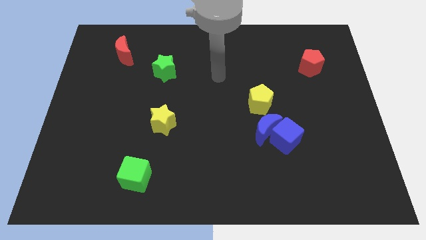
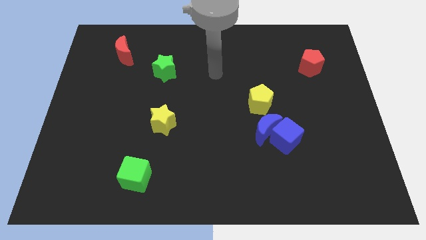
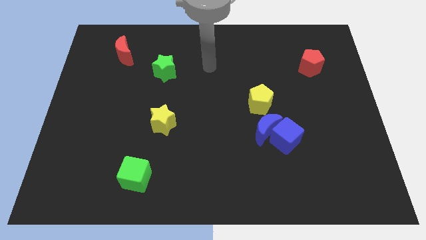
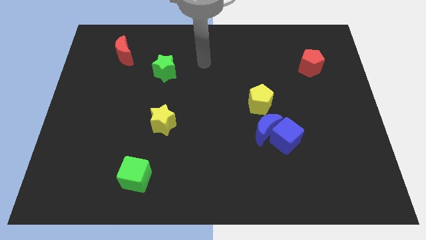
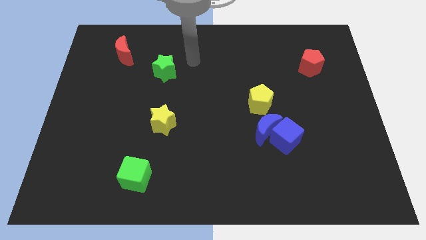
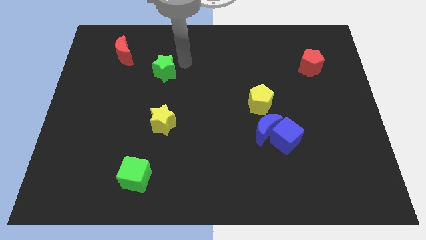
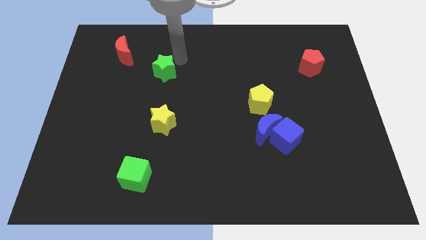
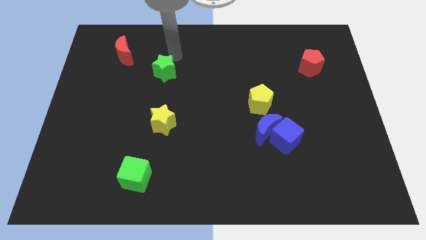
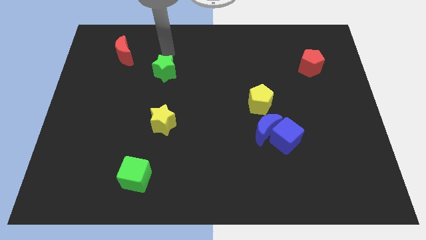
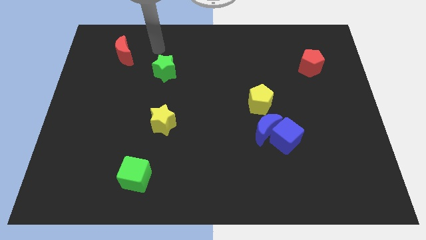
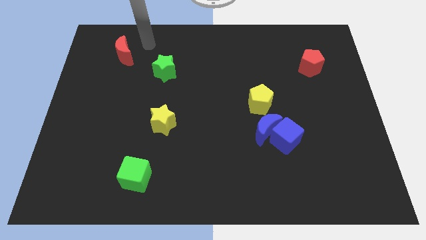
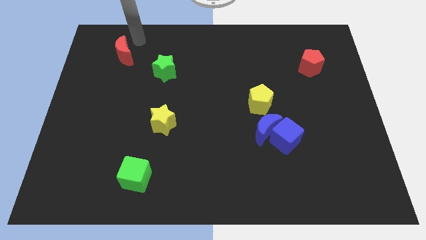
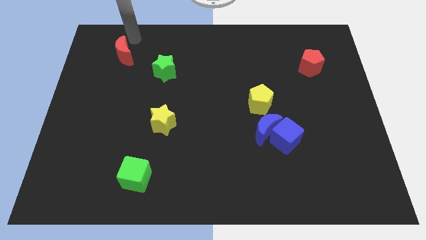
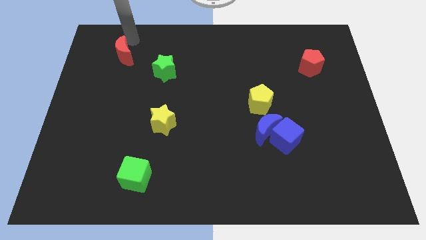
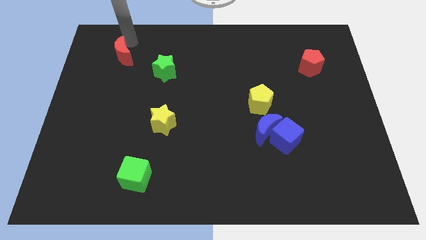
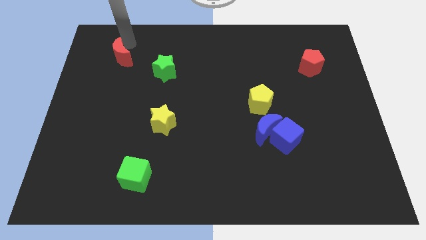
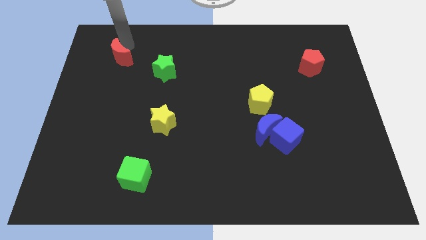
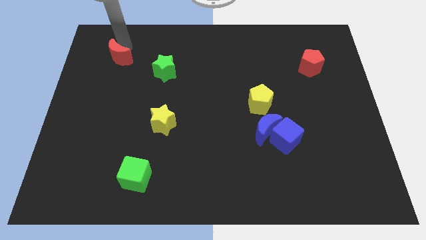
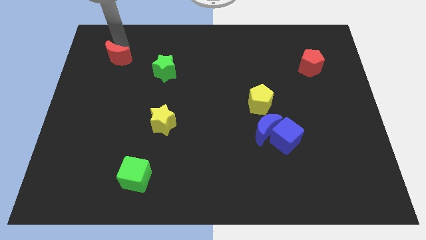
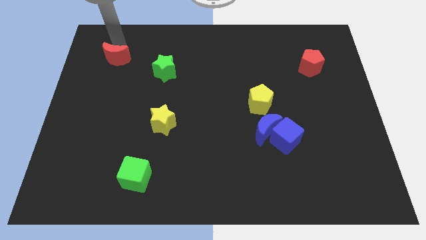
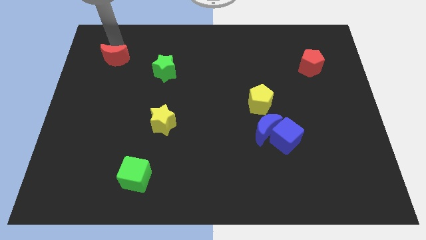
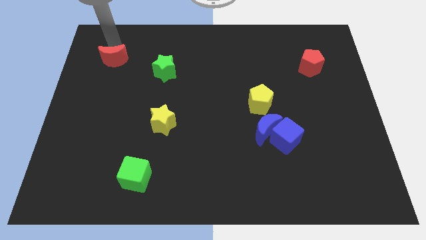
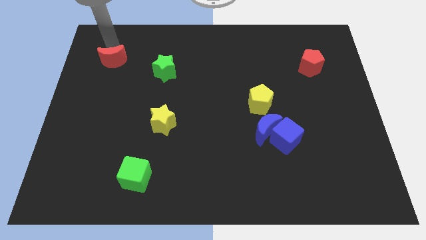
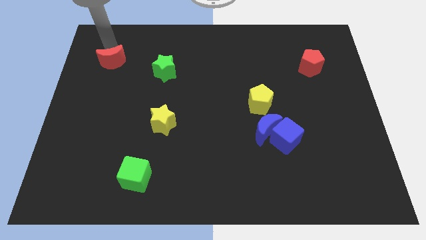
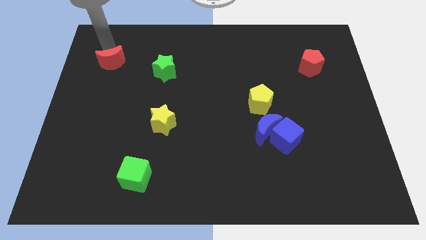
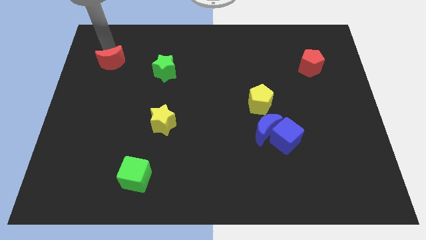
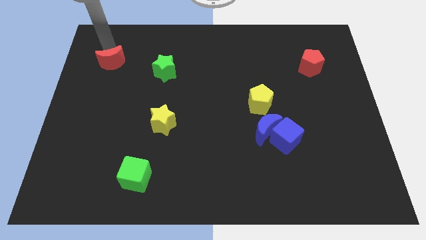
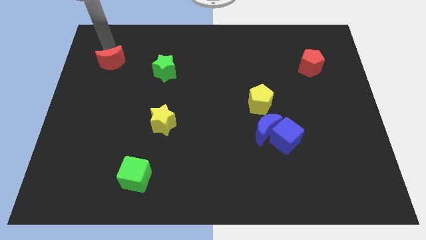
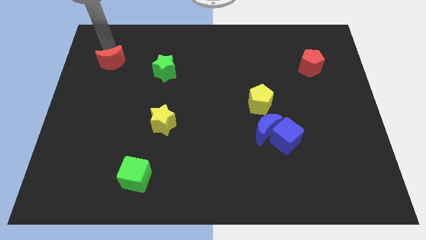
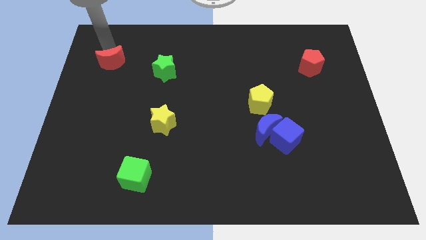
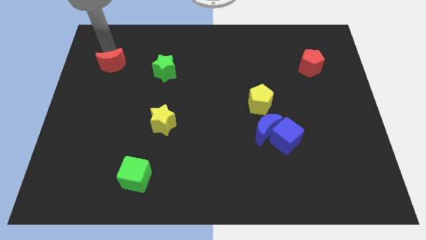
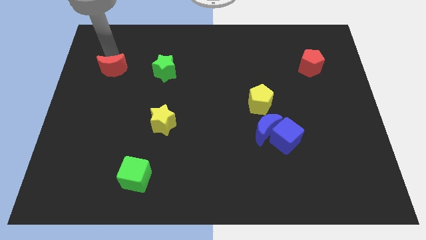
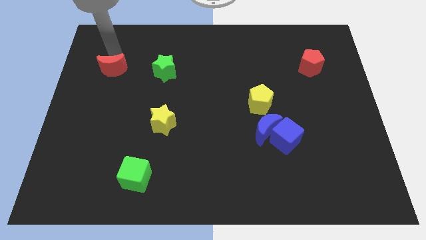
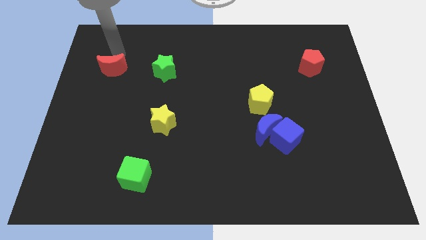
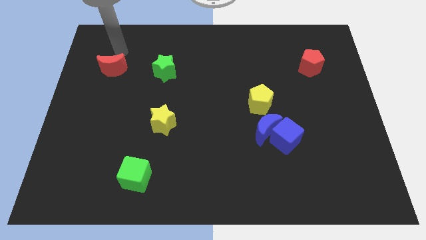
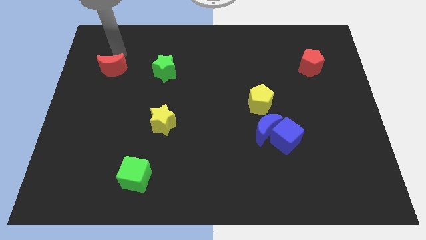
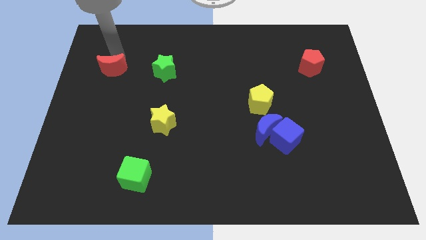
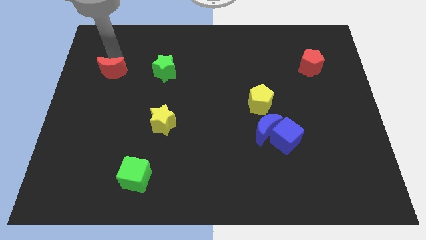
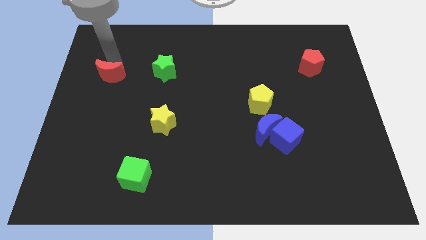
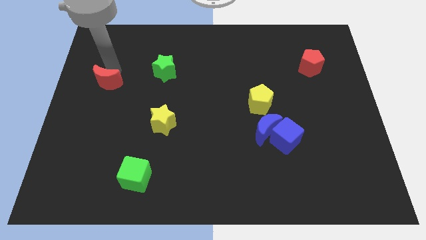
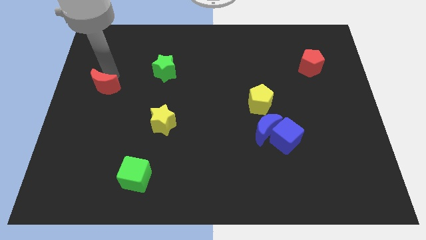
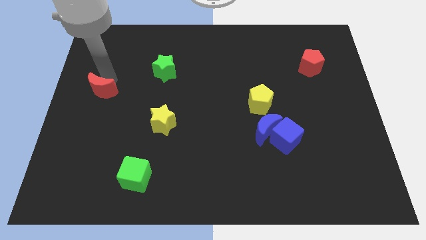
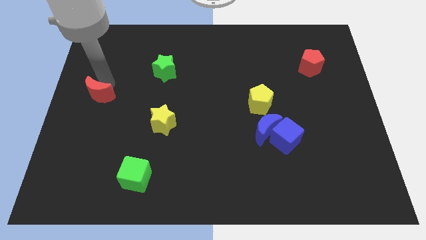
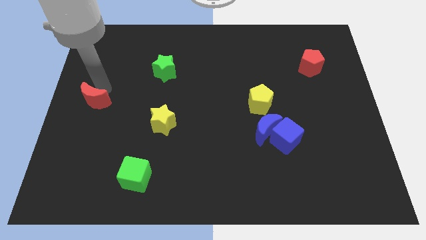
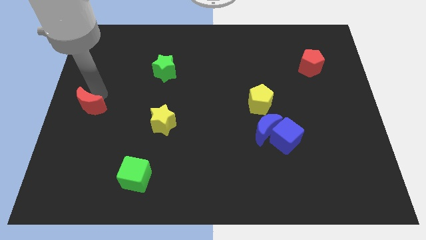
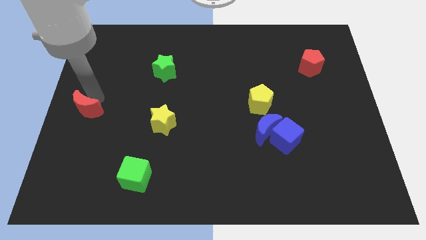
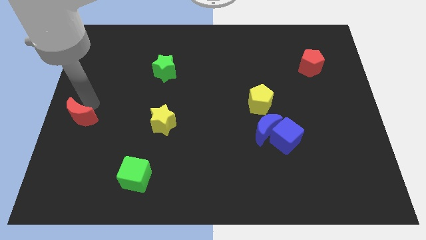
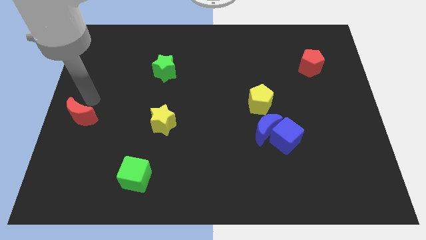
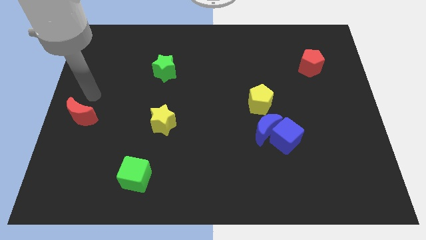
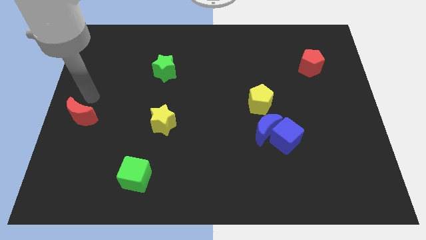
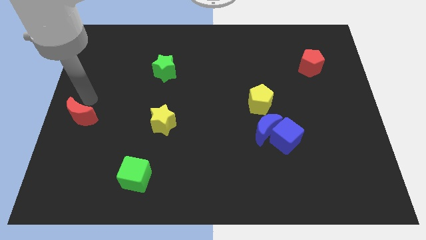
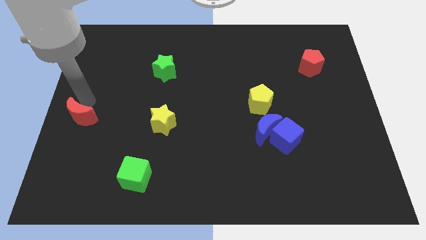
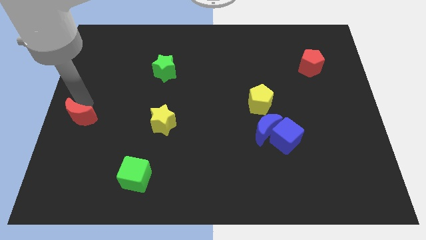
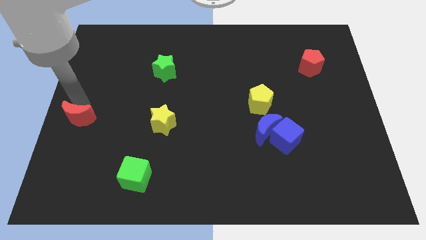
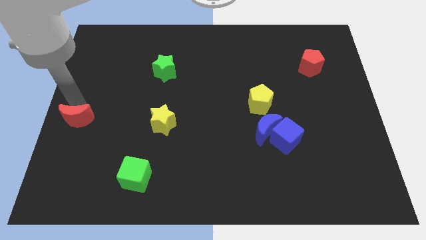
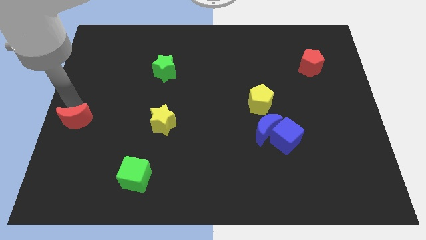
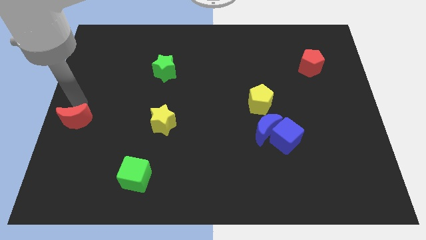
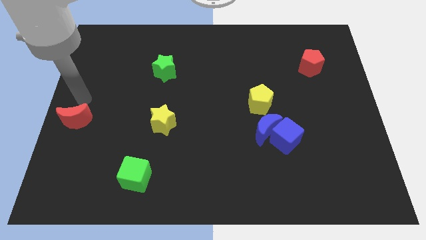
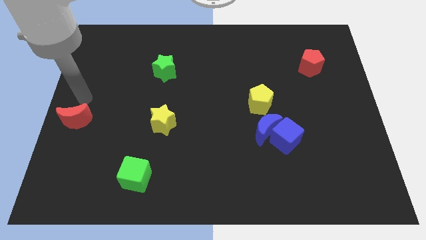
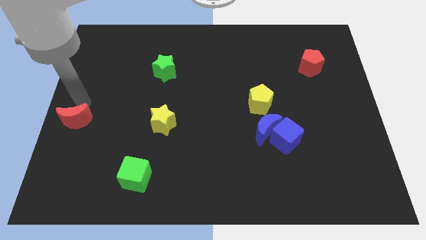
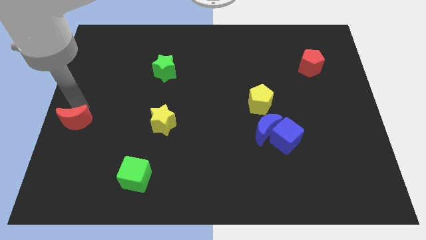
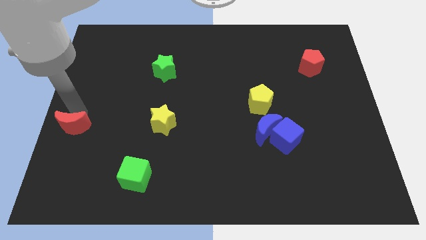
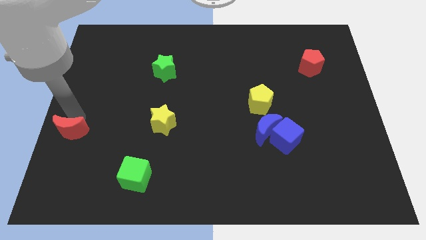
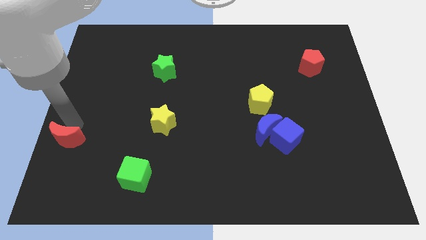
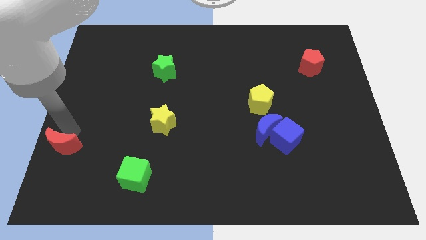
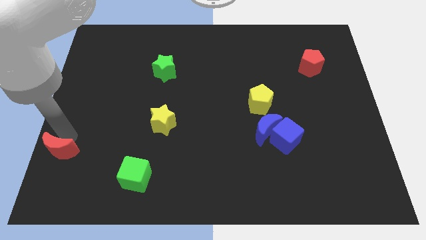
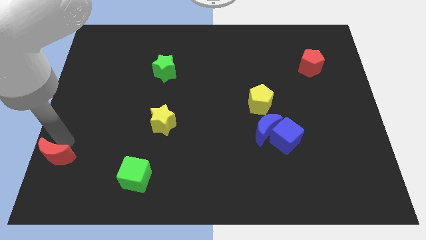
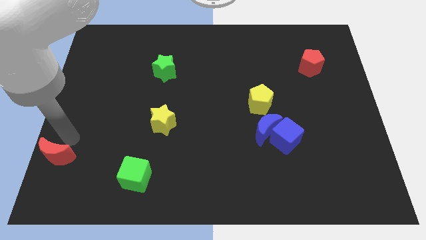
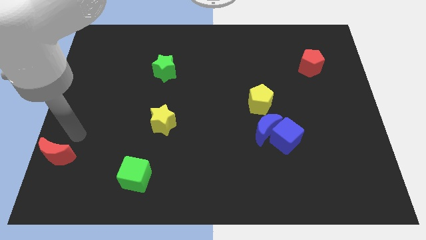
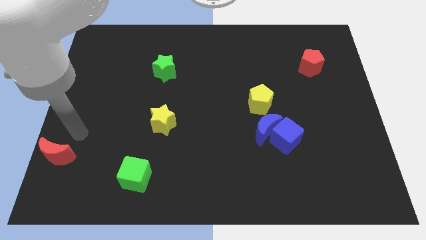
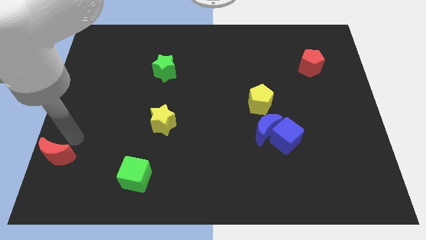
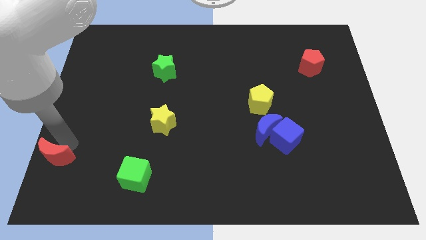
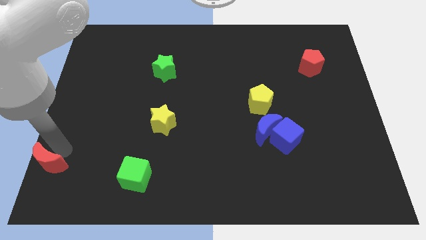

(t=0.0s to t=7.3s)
slide the red moon to the bottom left of the board
